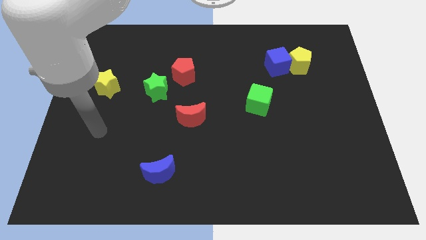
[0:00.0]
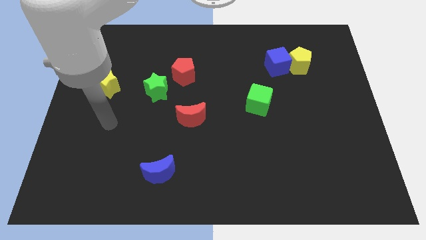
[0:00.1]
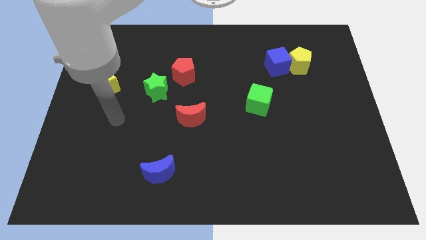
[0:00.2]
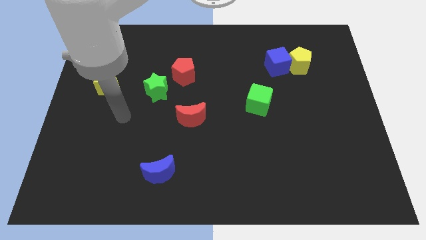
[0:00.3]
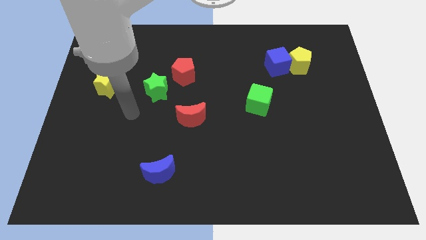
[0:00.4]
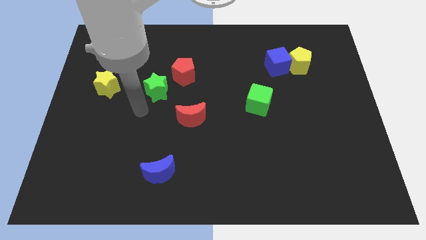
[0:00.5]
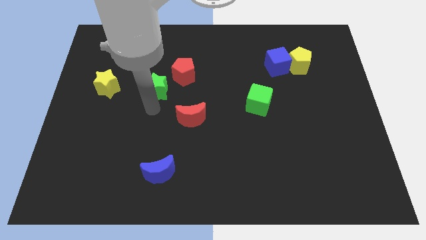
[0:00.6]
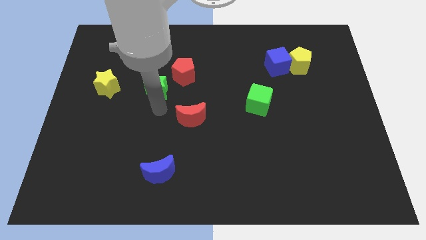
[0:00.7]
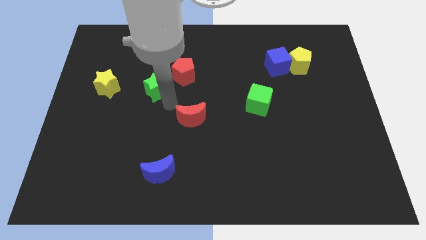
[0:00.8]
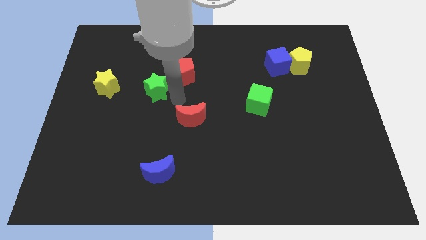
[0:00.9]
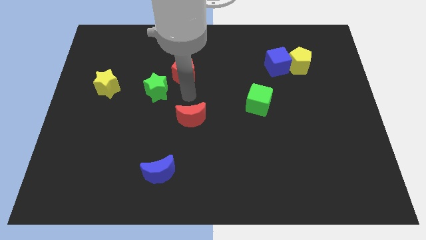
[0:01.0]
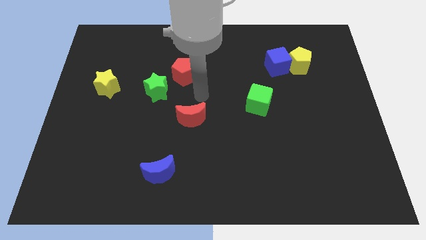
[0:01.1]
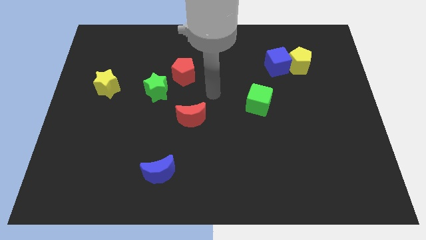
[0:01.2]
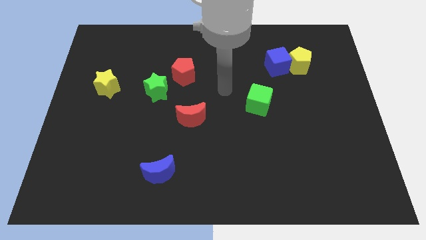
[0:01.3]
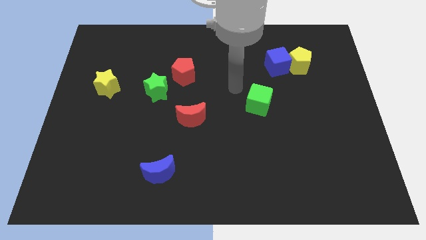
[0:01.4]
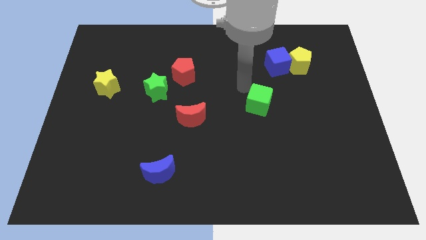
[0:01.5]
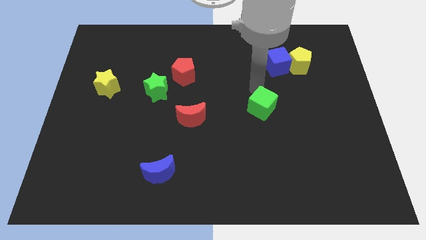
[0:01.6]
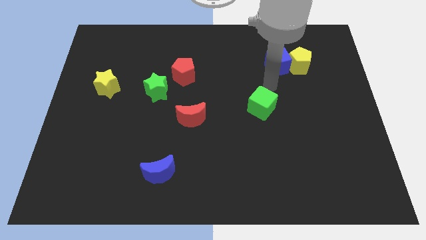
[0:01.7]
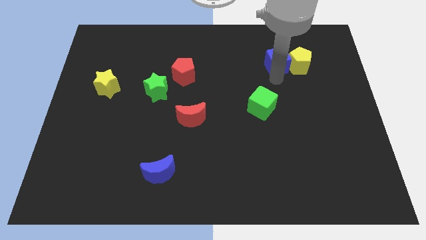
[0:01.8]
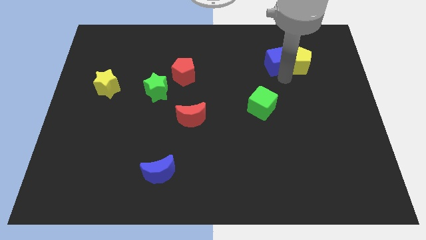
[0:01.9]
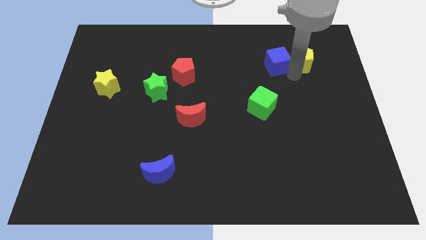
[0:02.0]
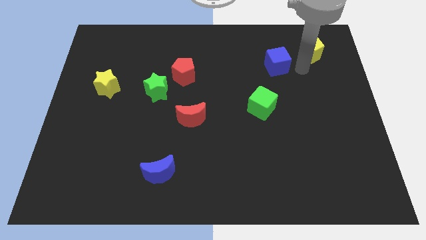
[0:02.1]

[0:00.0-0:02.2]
separate the blue cube from the yellow pentagon

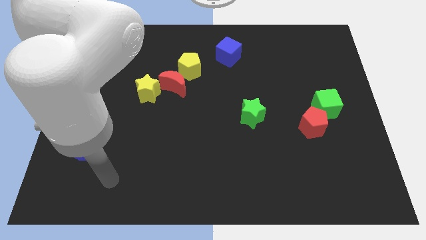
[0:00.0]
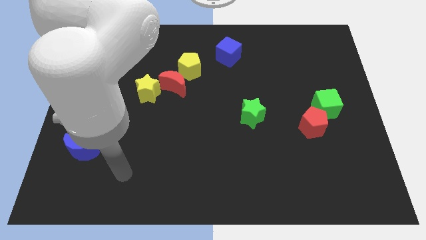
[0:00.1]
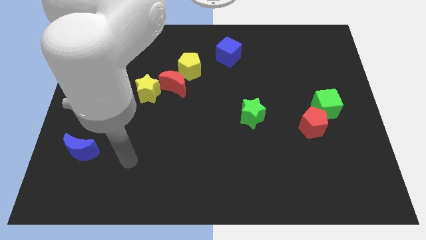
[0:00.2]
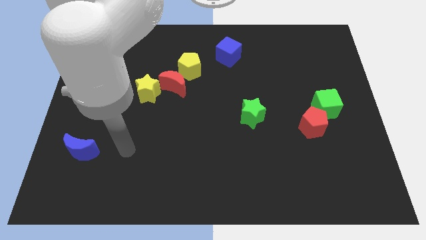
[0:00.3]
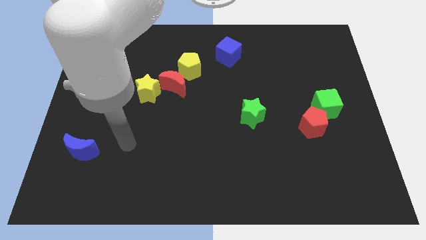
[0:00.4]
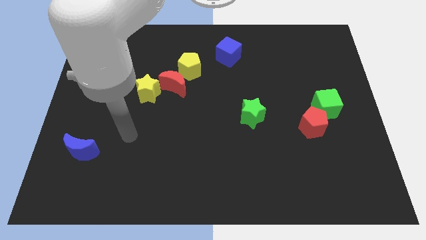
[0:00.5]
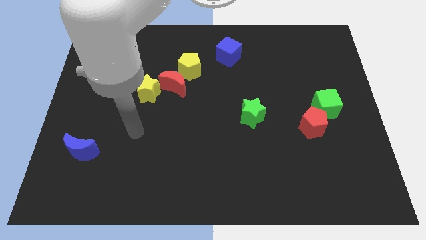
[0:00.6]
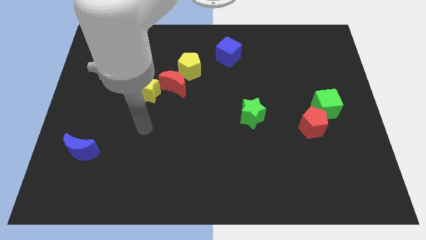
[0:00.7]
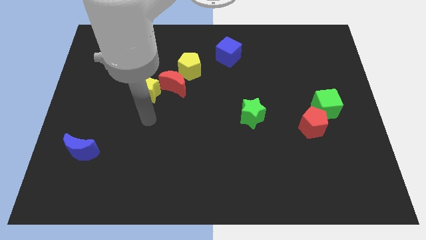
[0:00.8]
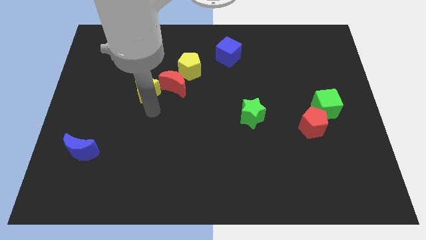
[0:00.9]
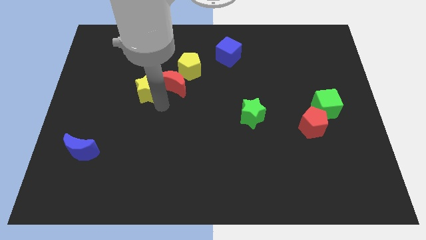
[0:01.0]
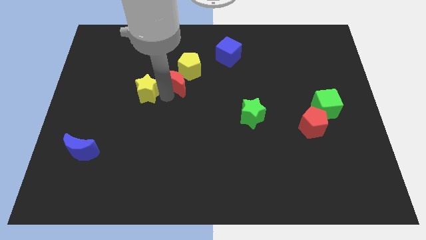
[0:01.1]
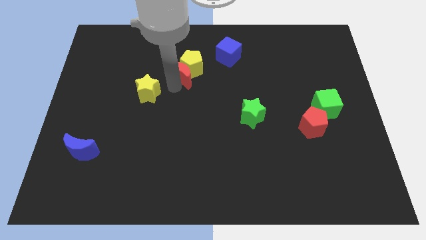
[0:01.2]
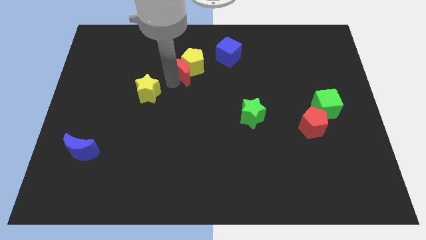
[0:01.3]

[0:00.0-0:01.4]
move the yellow star away from the red moon

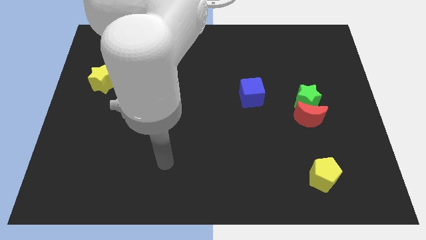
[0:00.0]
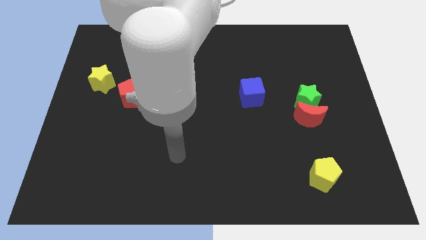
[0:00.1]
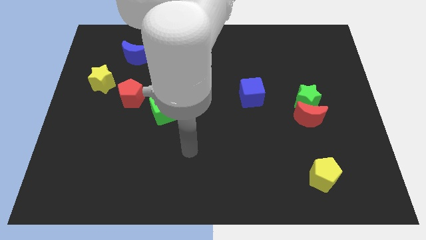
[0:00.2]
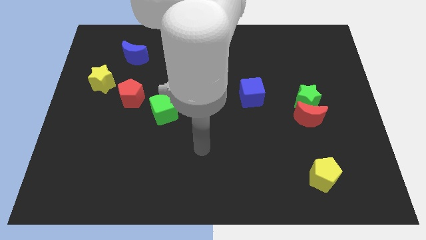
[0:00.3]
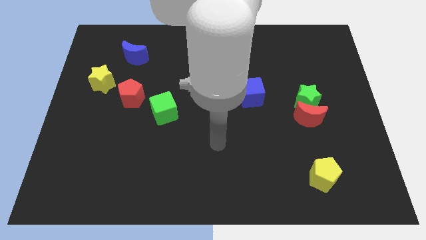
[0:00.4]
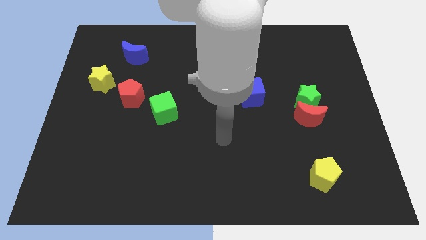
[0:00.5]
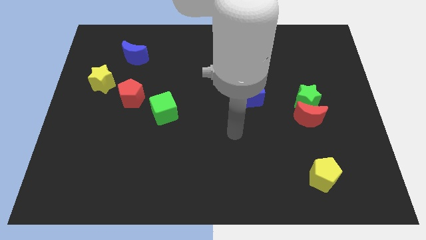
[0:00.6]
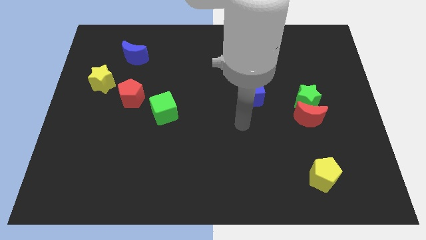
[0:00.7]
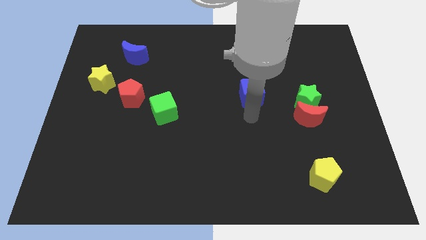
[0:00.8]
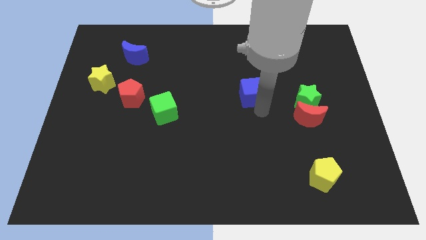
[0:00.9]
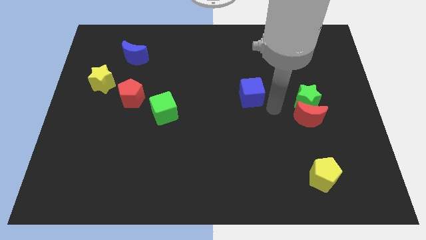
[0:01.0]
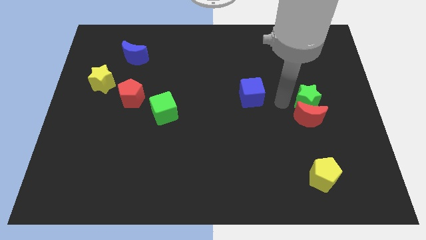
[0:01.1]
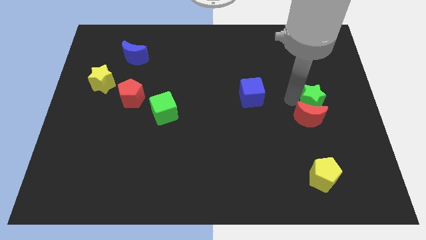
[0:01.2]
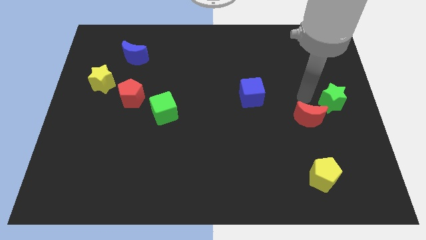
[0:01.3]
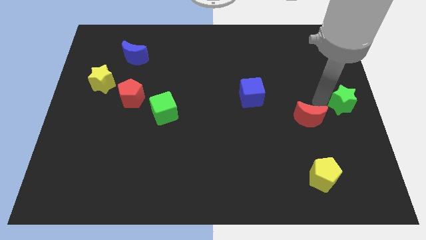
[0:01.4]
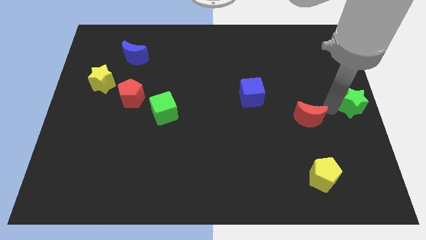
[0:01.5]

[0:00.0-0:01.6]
pull the red moon apart from the green star

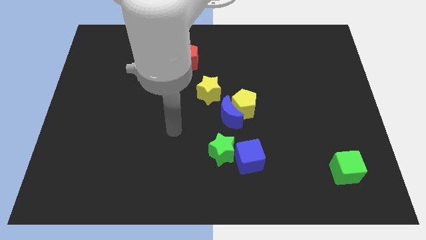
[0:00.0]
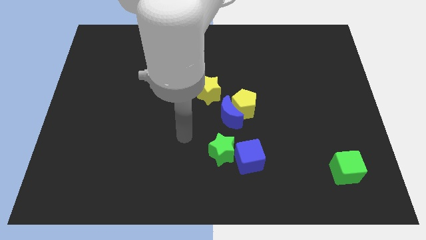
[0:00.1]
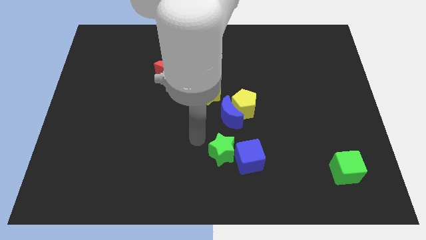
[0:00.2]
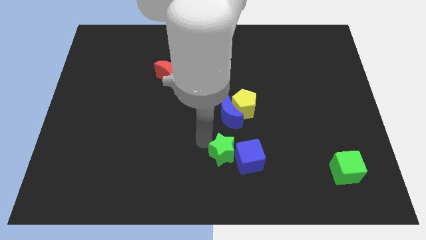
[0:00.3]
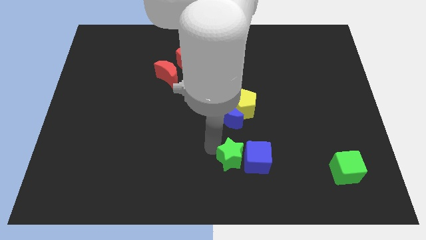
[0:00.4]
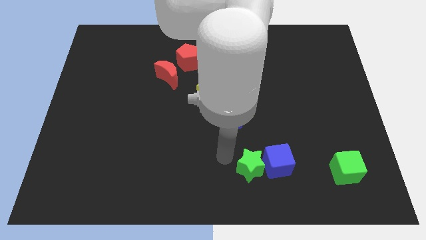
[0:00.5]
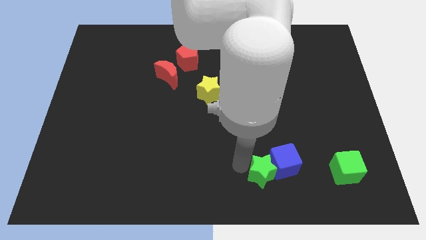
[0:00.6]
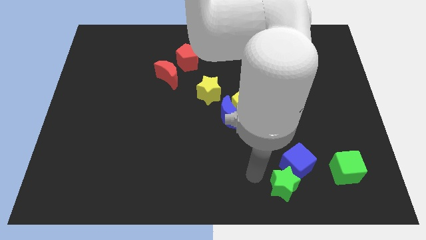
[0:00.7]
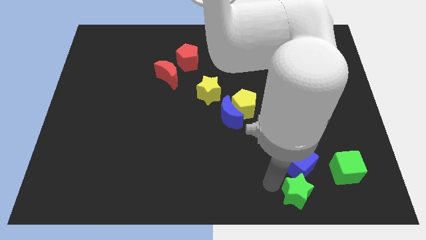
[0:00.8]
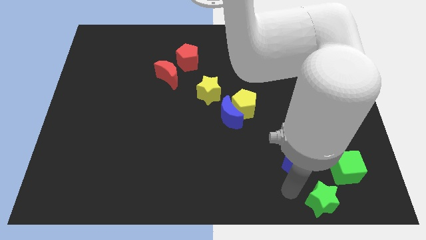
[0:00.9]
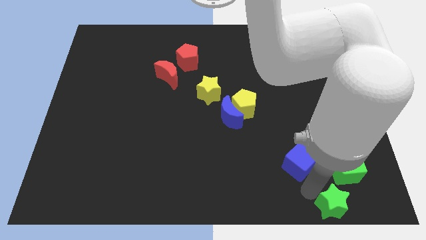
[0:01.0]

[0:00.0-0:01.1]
separate the blue cube from the green star

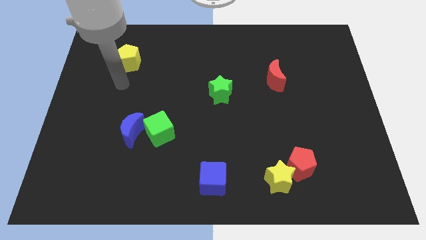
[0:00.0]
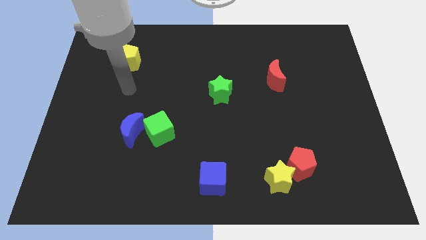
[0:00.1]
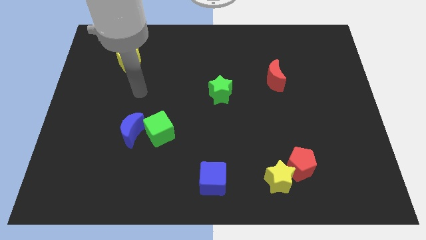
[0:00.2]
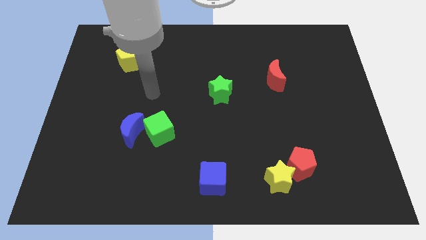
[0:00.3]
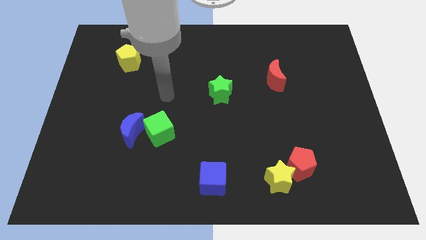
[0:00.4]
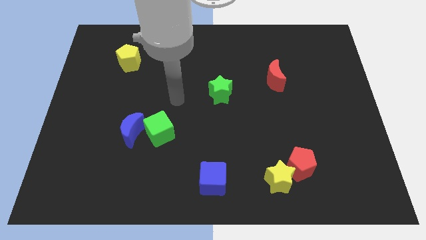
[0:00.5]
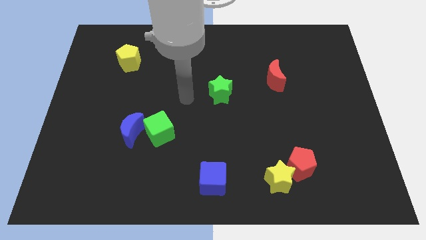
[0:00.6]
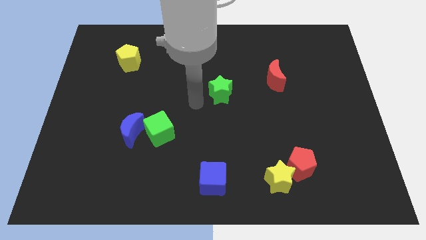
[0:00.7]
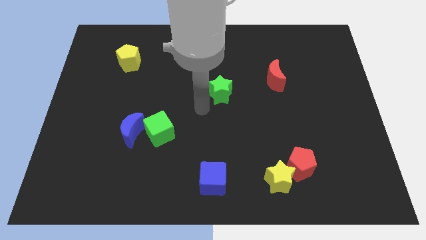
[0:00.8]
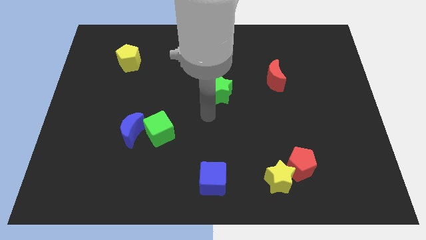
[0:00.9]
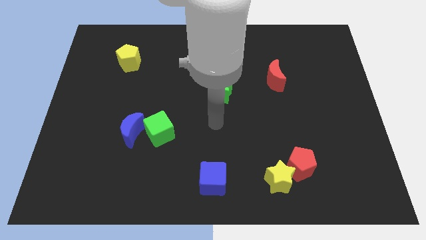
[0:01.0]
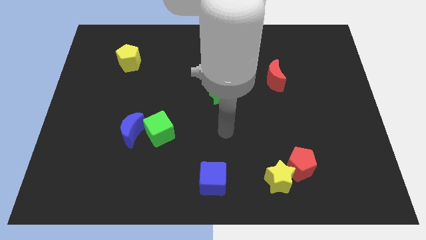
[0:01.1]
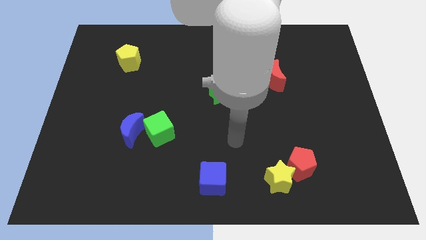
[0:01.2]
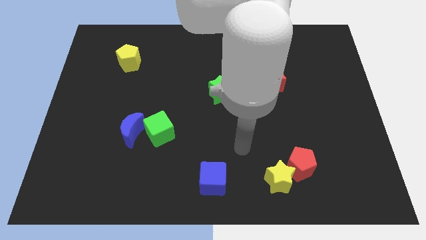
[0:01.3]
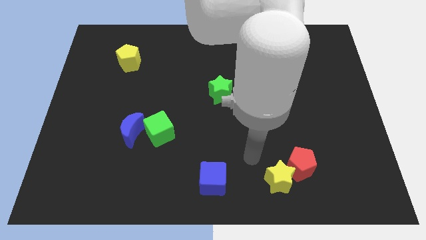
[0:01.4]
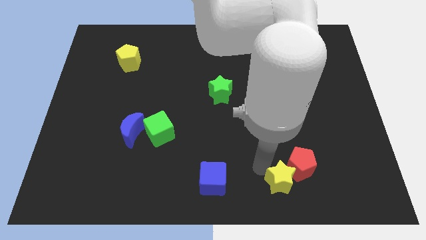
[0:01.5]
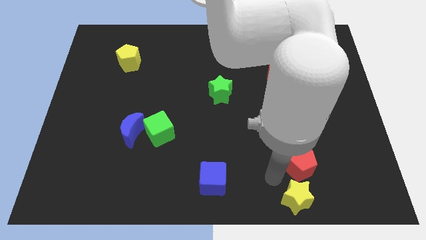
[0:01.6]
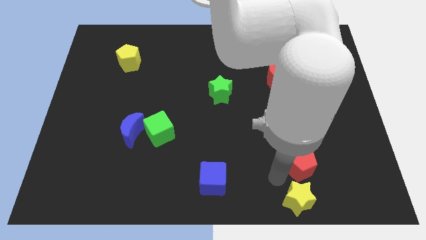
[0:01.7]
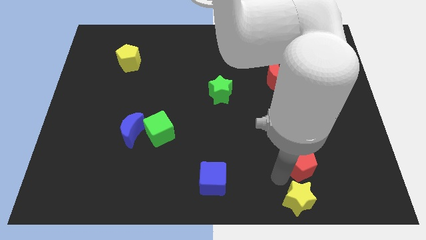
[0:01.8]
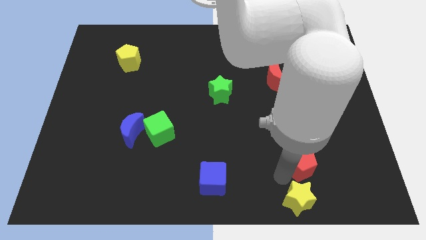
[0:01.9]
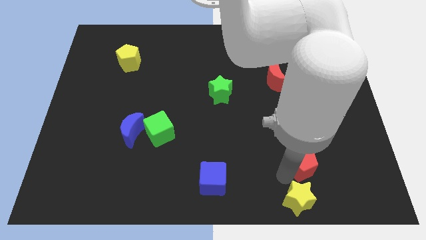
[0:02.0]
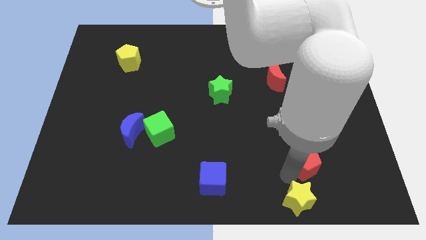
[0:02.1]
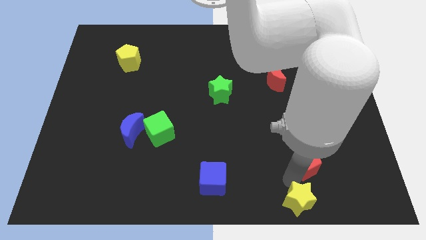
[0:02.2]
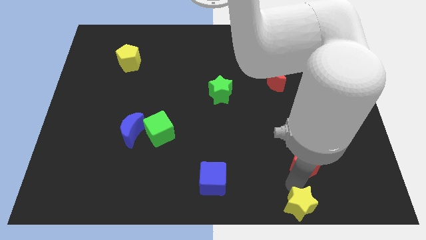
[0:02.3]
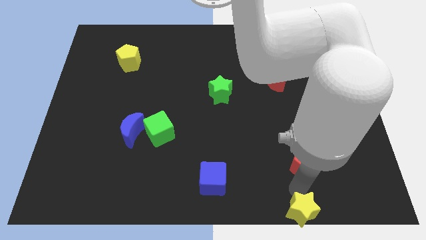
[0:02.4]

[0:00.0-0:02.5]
pull the red pentagon apart from the yellow star

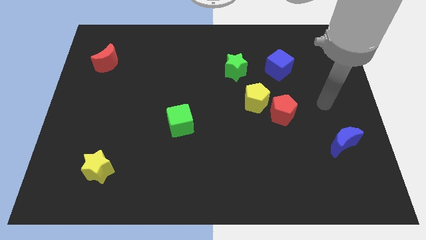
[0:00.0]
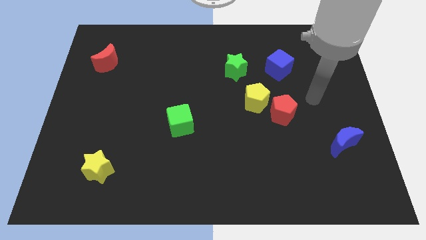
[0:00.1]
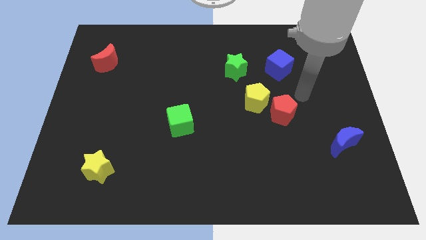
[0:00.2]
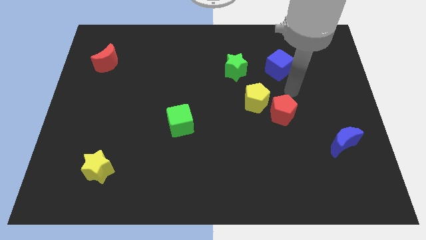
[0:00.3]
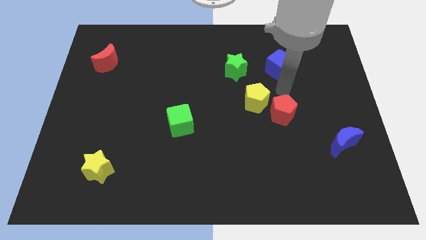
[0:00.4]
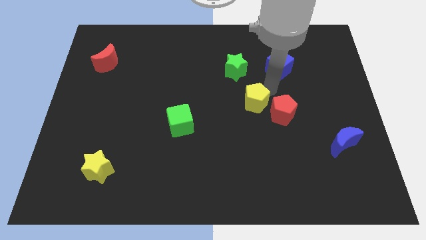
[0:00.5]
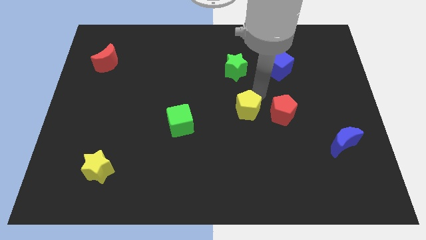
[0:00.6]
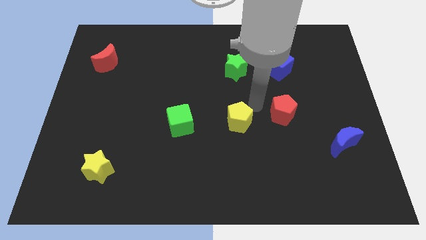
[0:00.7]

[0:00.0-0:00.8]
separate the red pentagon from the yellow pentagon
